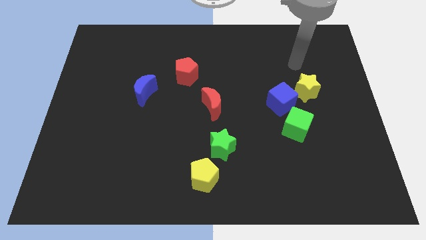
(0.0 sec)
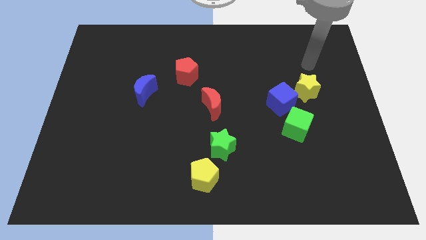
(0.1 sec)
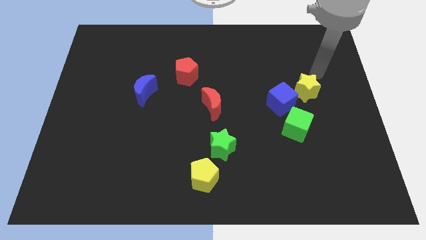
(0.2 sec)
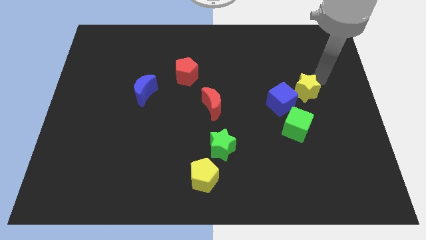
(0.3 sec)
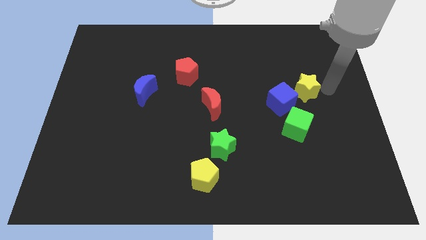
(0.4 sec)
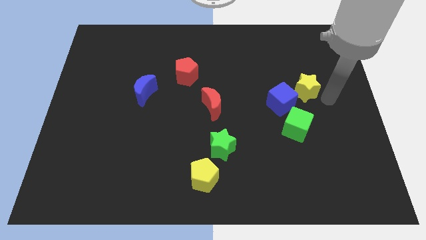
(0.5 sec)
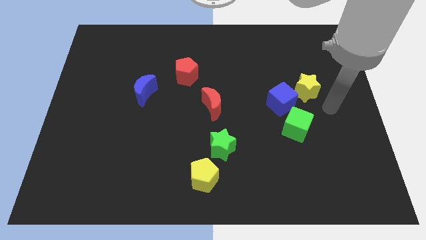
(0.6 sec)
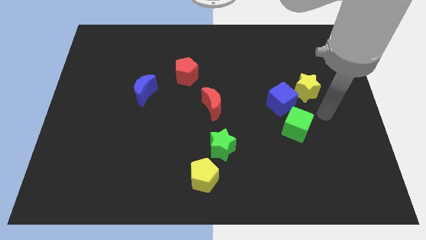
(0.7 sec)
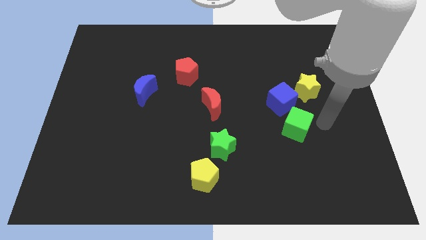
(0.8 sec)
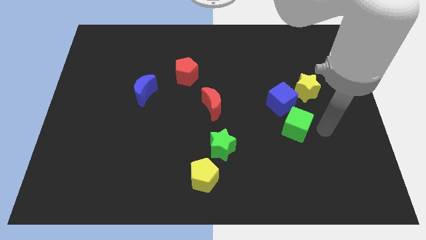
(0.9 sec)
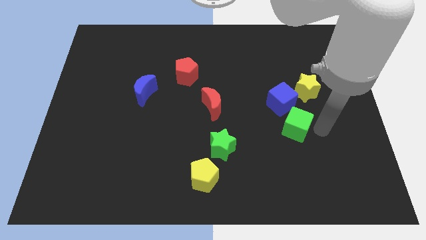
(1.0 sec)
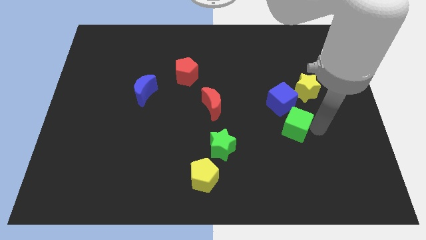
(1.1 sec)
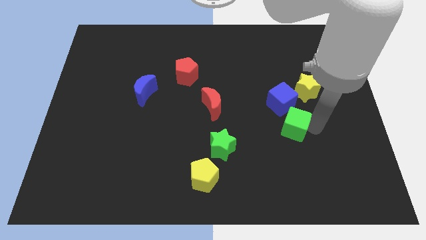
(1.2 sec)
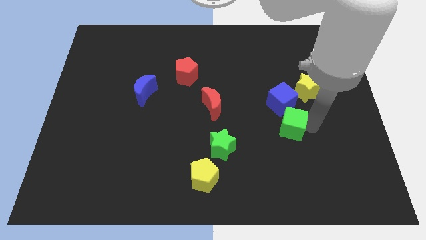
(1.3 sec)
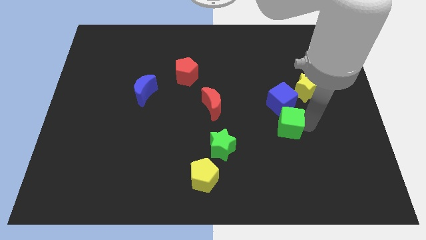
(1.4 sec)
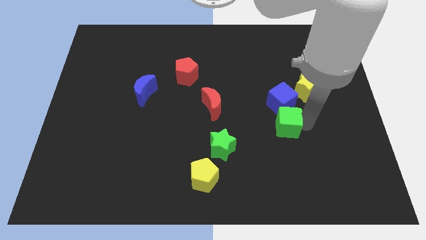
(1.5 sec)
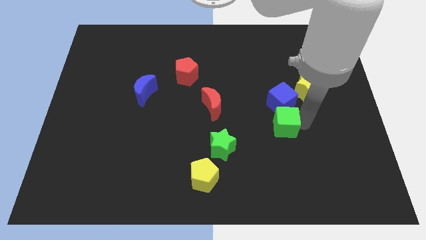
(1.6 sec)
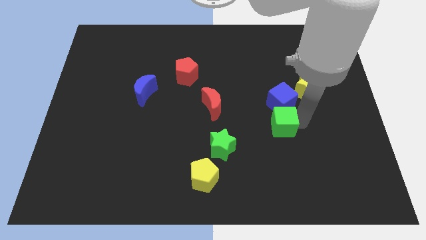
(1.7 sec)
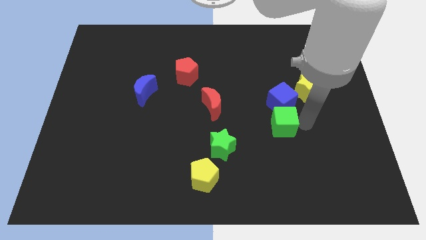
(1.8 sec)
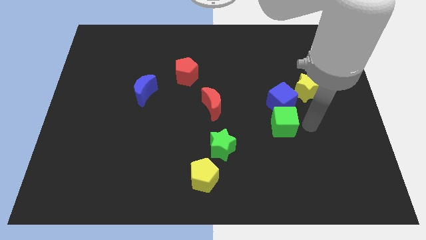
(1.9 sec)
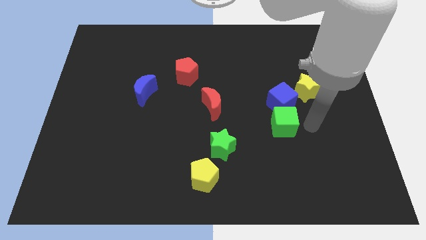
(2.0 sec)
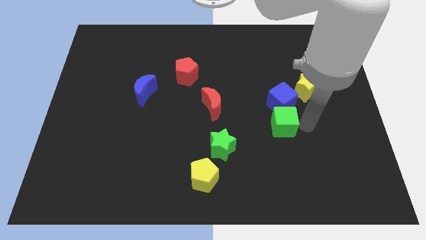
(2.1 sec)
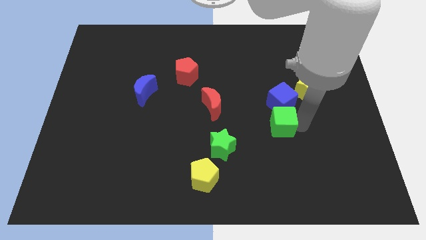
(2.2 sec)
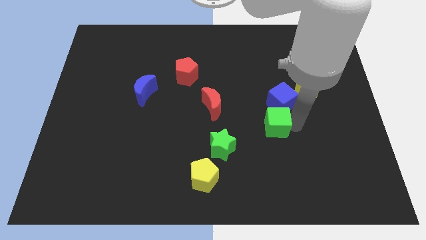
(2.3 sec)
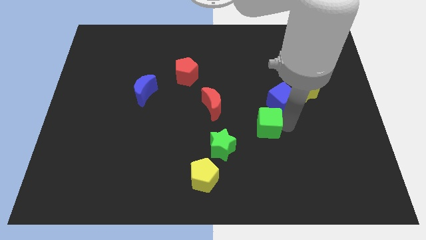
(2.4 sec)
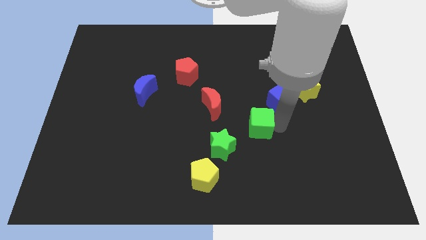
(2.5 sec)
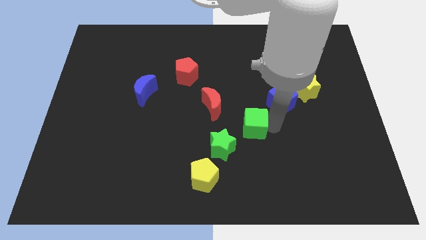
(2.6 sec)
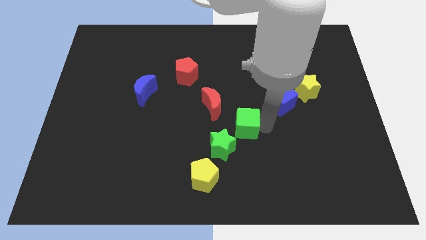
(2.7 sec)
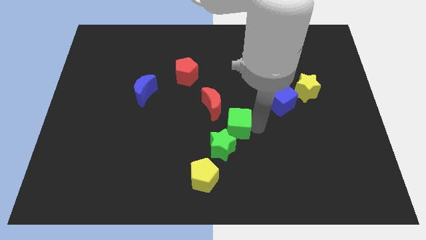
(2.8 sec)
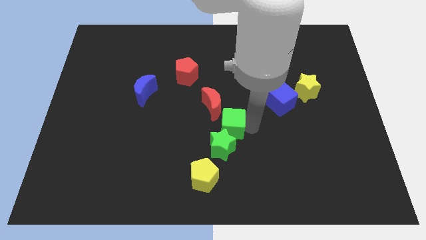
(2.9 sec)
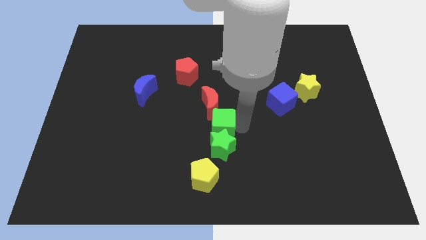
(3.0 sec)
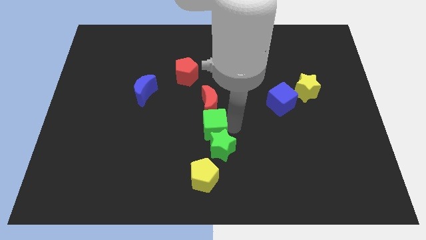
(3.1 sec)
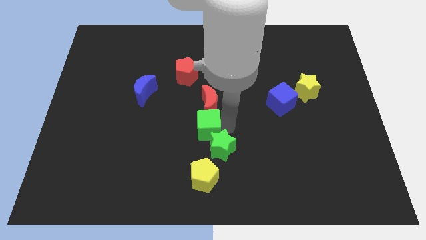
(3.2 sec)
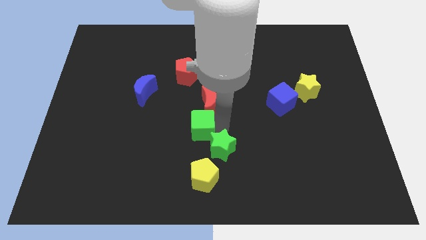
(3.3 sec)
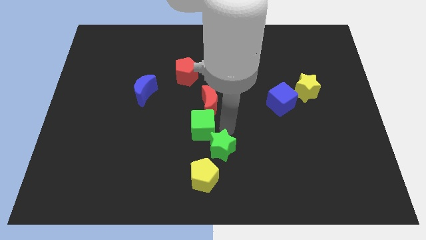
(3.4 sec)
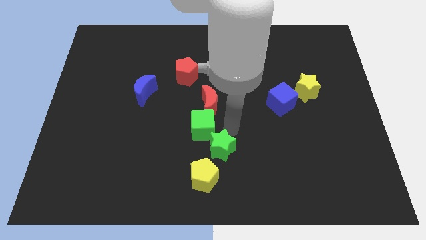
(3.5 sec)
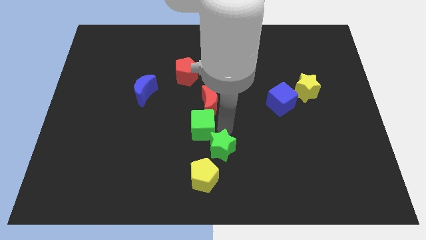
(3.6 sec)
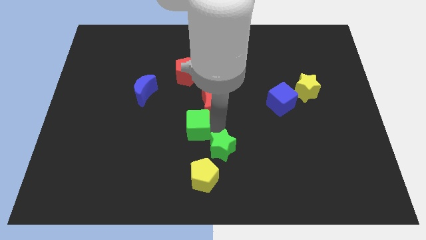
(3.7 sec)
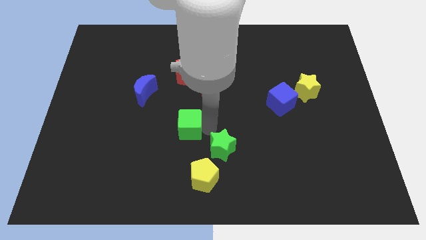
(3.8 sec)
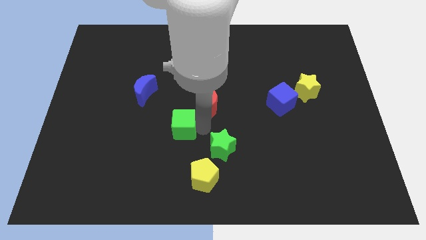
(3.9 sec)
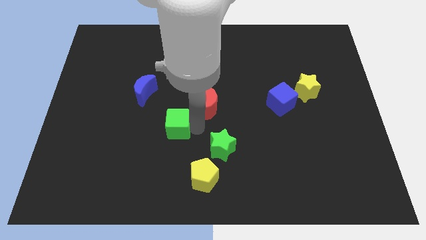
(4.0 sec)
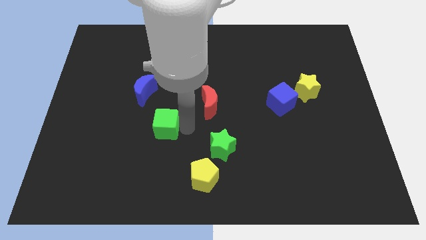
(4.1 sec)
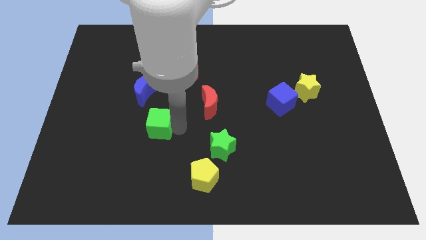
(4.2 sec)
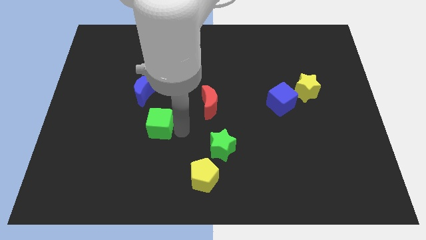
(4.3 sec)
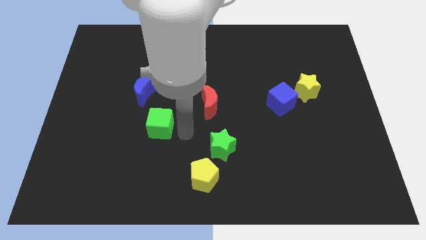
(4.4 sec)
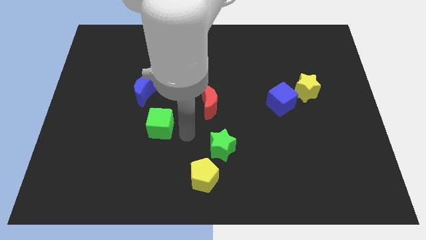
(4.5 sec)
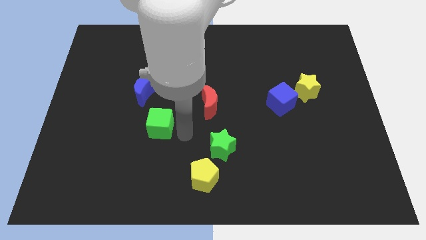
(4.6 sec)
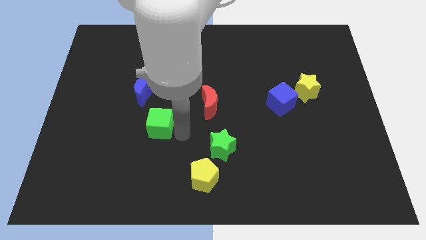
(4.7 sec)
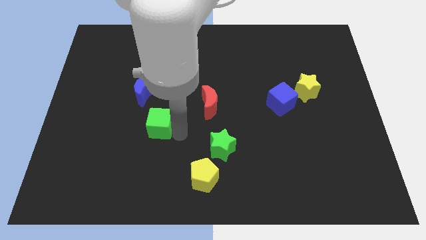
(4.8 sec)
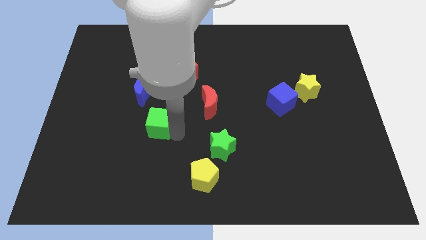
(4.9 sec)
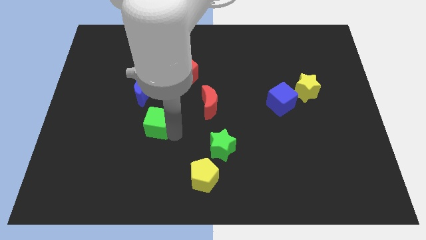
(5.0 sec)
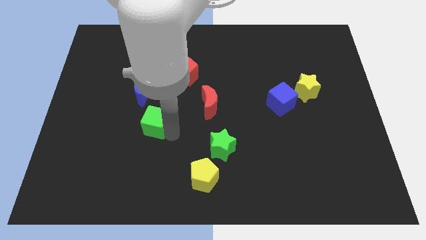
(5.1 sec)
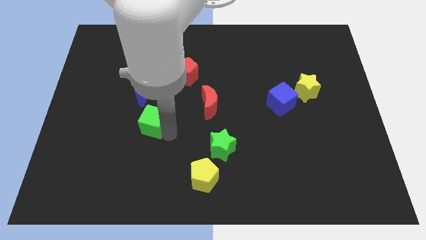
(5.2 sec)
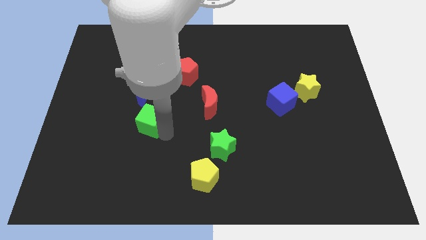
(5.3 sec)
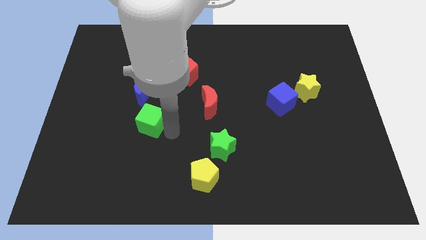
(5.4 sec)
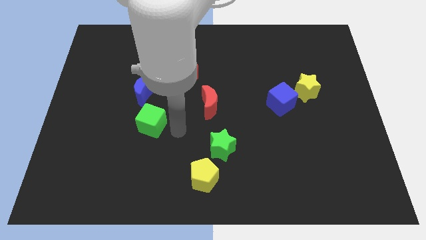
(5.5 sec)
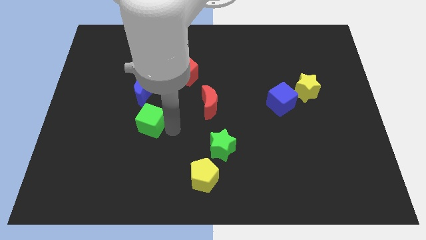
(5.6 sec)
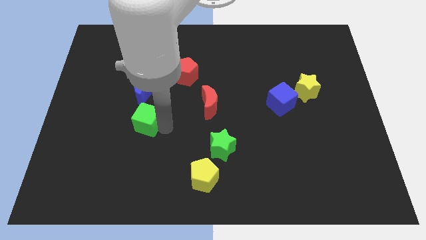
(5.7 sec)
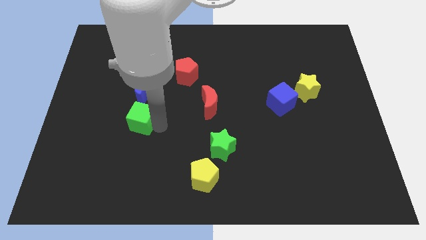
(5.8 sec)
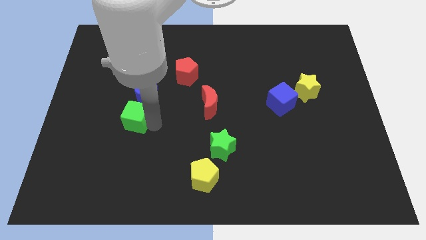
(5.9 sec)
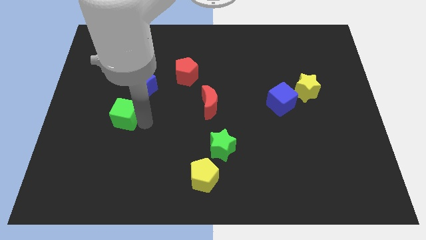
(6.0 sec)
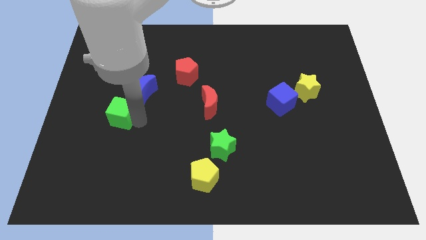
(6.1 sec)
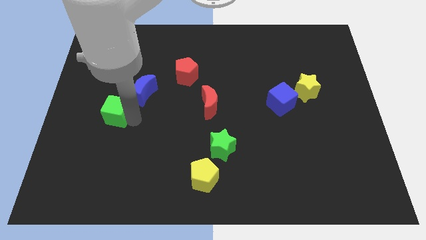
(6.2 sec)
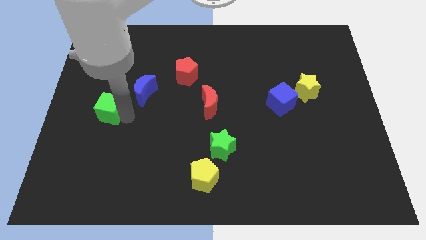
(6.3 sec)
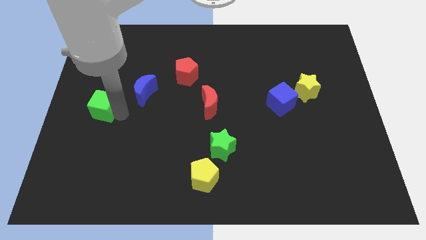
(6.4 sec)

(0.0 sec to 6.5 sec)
push the green cube to the left side
